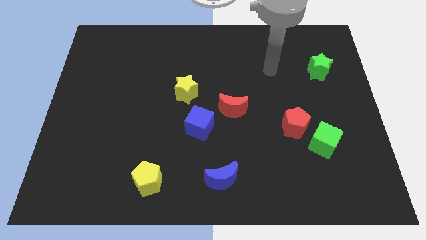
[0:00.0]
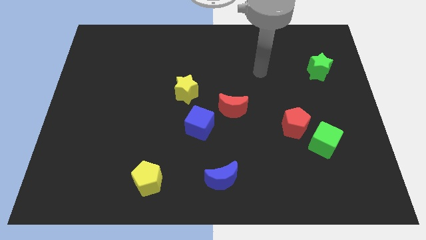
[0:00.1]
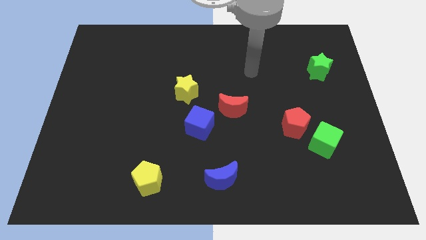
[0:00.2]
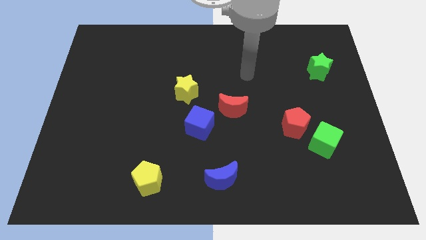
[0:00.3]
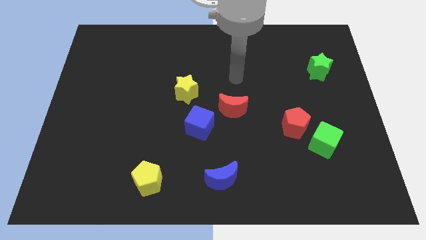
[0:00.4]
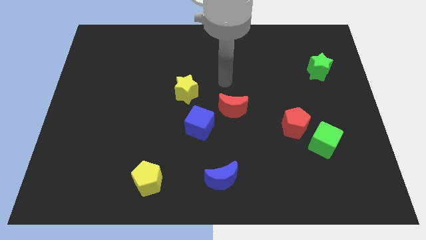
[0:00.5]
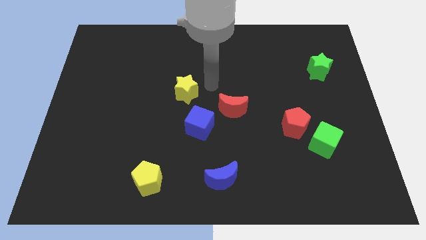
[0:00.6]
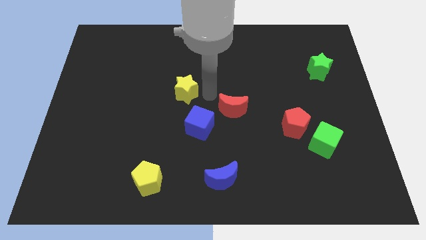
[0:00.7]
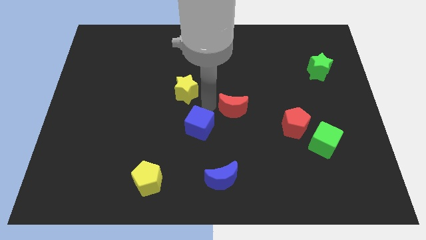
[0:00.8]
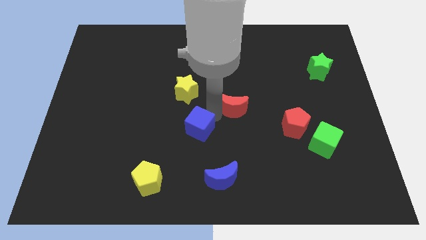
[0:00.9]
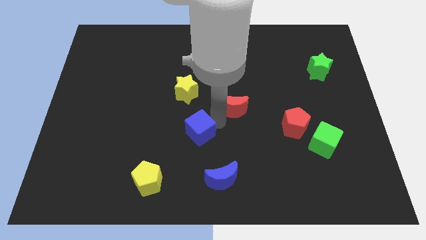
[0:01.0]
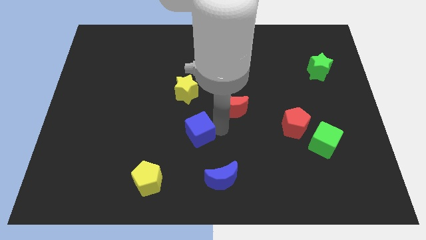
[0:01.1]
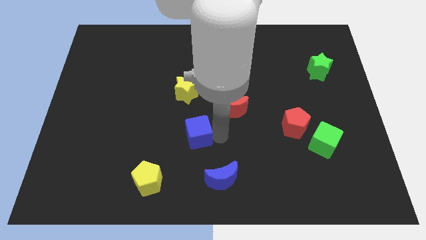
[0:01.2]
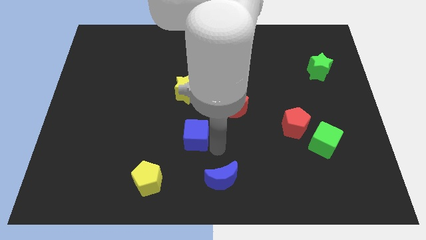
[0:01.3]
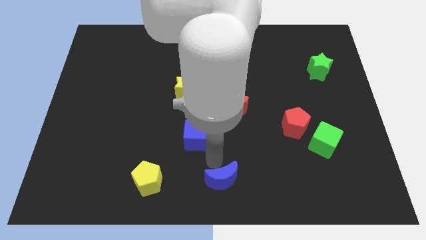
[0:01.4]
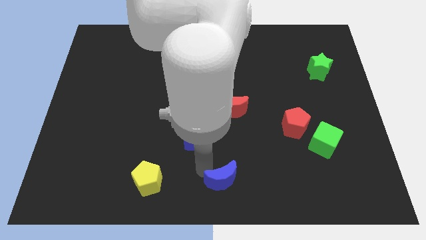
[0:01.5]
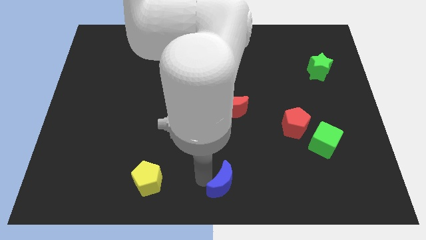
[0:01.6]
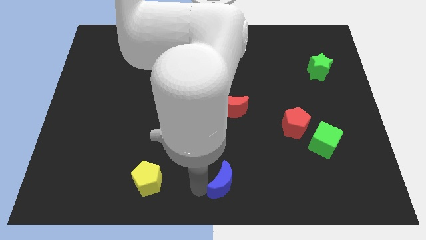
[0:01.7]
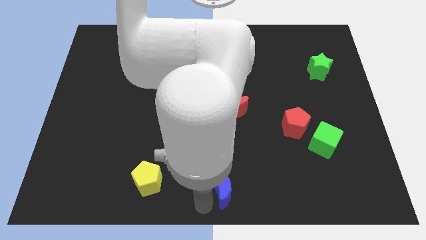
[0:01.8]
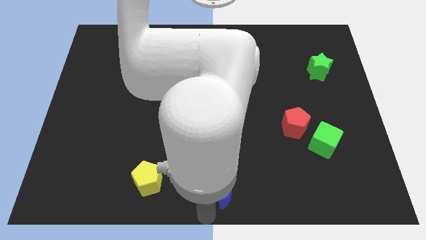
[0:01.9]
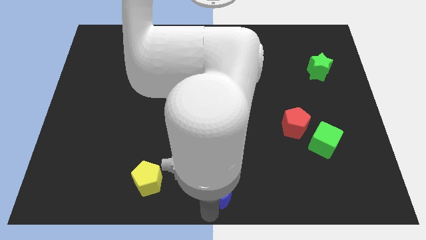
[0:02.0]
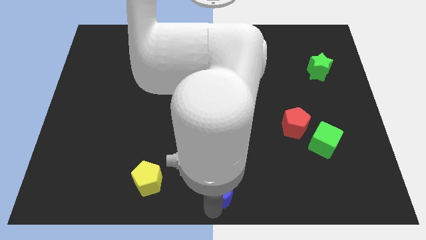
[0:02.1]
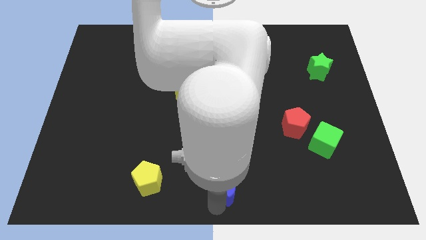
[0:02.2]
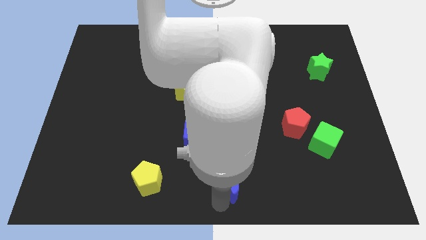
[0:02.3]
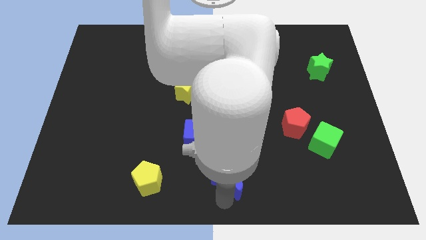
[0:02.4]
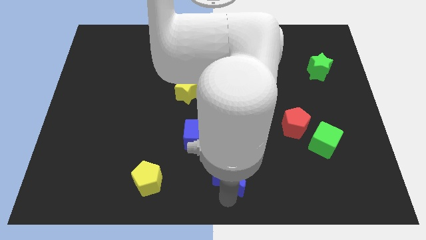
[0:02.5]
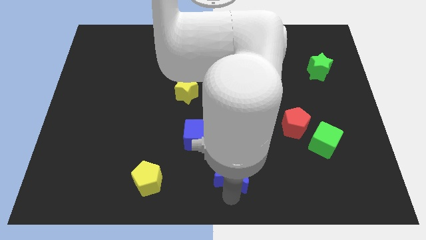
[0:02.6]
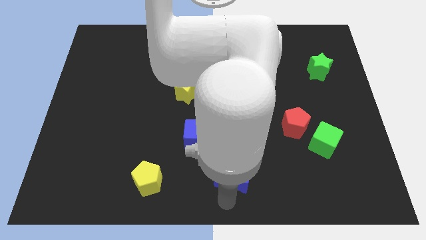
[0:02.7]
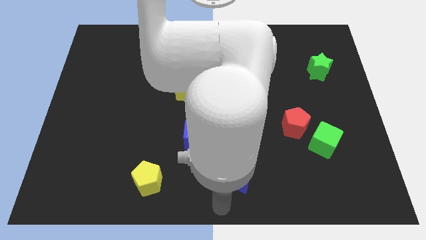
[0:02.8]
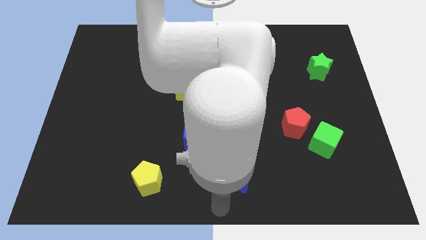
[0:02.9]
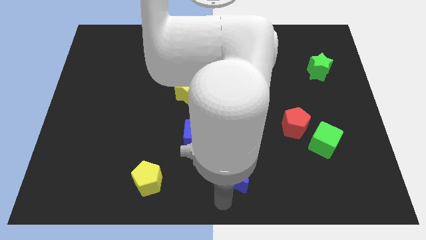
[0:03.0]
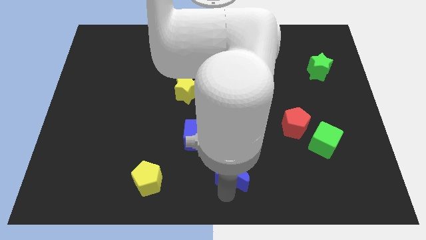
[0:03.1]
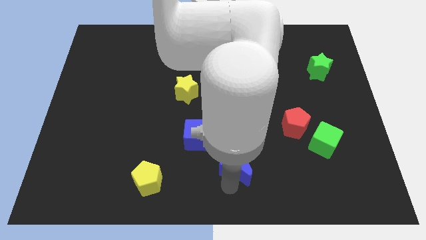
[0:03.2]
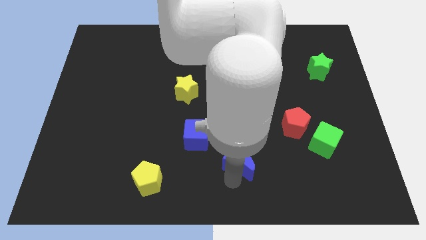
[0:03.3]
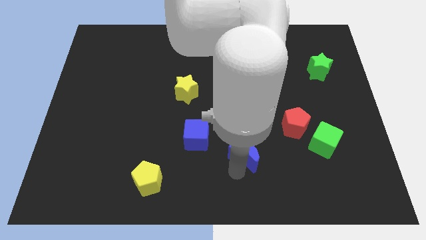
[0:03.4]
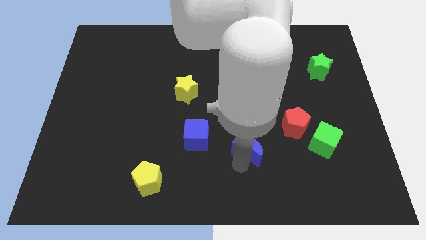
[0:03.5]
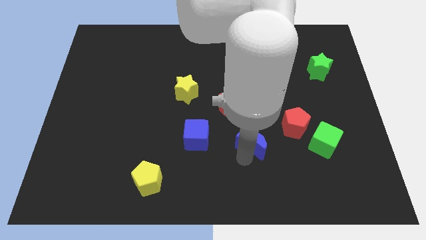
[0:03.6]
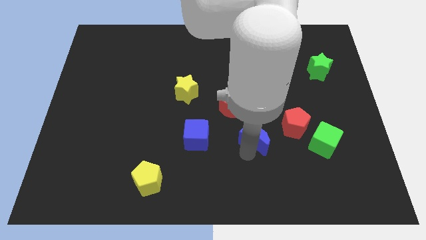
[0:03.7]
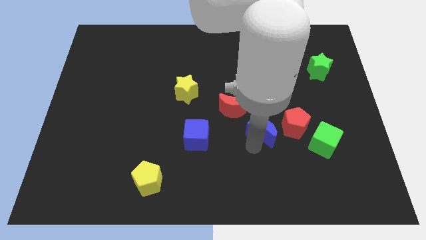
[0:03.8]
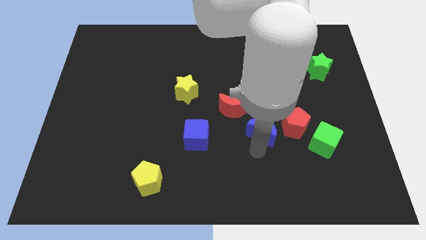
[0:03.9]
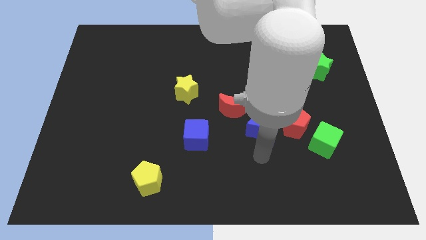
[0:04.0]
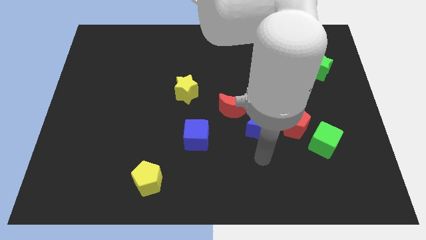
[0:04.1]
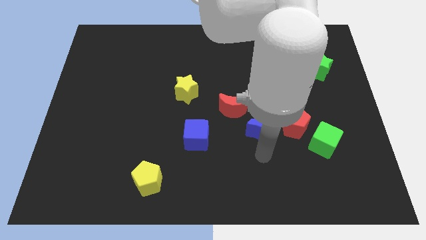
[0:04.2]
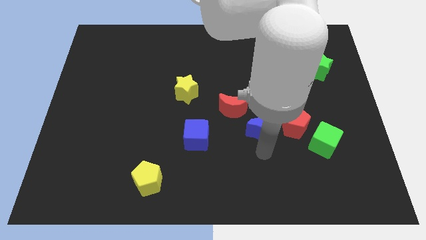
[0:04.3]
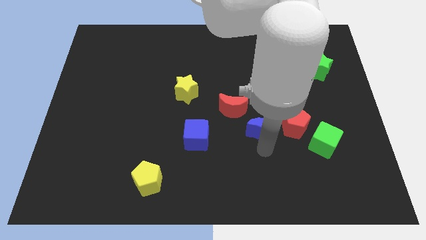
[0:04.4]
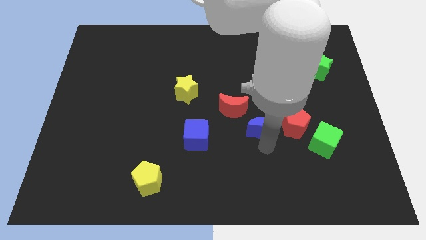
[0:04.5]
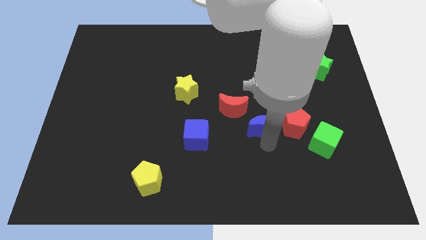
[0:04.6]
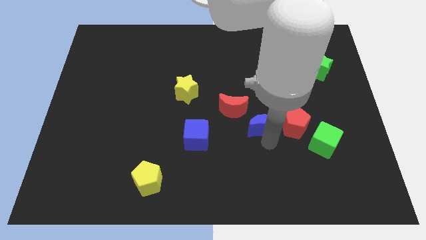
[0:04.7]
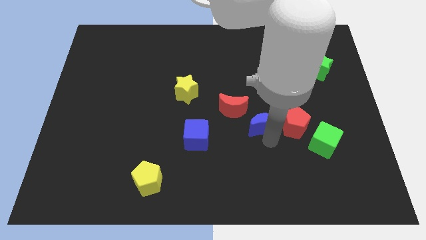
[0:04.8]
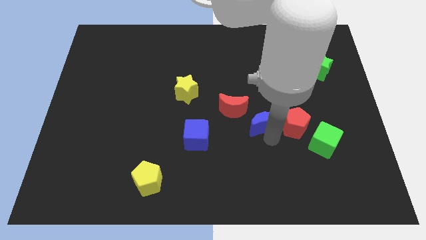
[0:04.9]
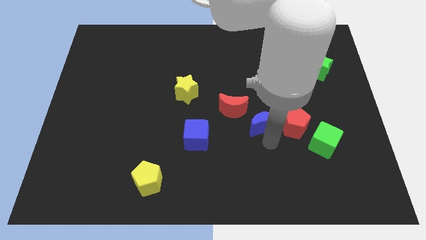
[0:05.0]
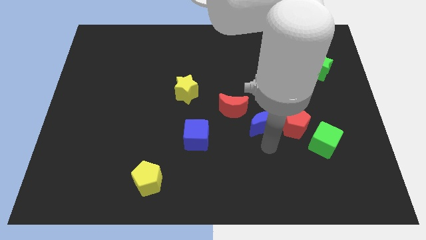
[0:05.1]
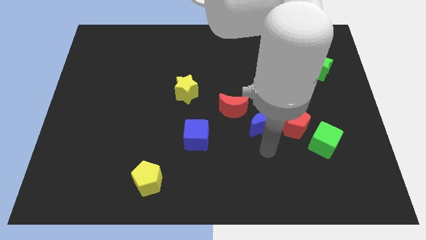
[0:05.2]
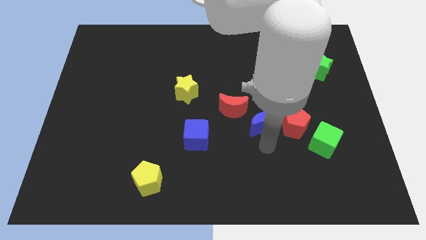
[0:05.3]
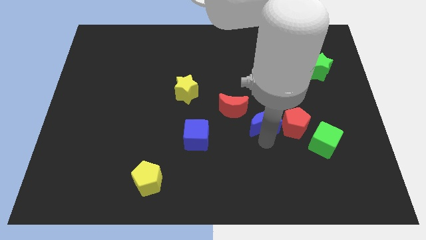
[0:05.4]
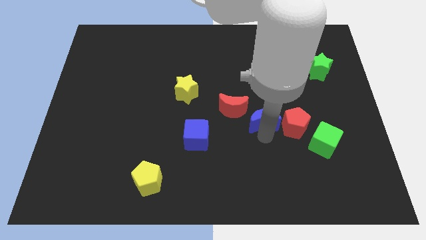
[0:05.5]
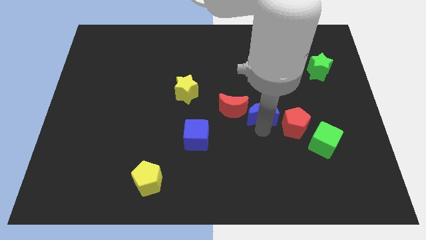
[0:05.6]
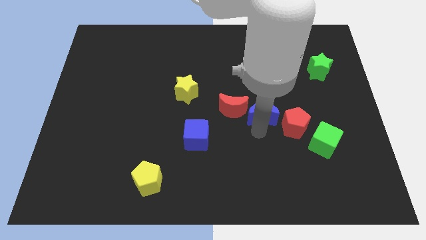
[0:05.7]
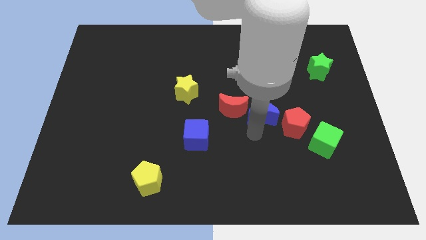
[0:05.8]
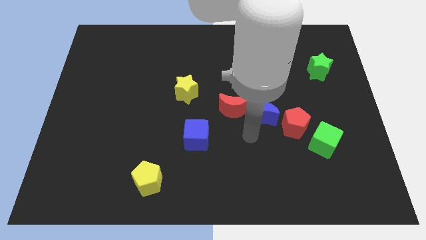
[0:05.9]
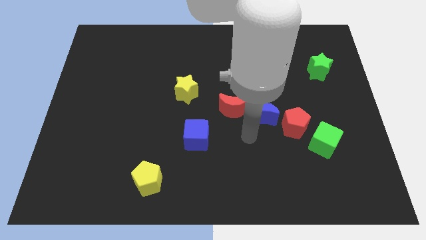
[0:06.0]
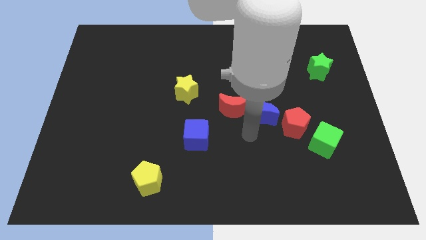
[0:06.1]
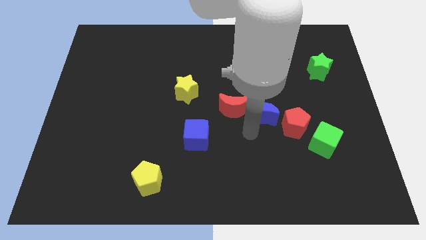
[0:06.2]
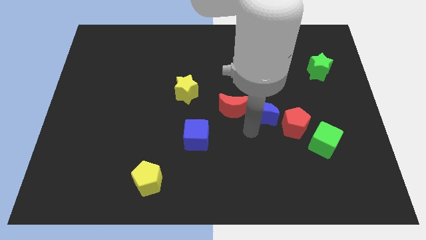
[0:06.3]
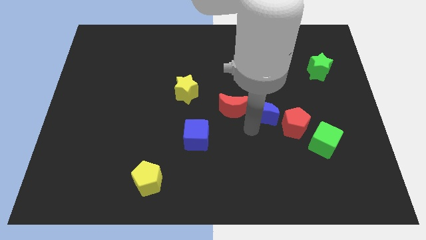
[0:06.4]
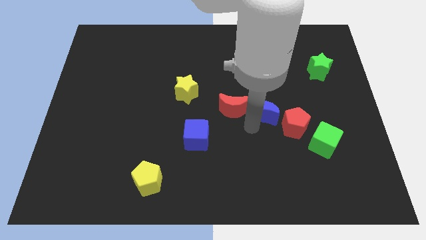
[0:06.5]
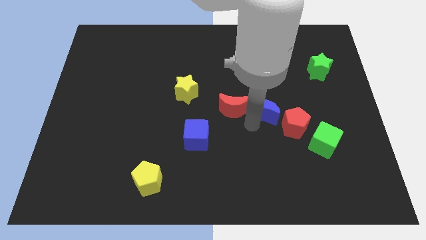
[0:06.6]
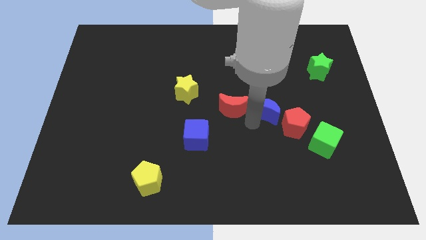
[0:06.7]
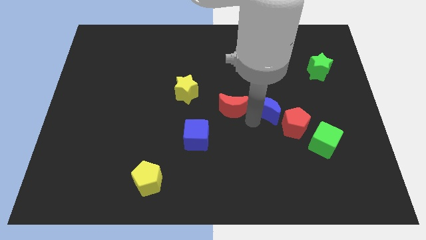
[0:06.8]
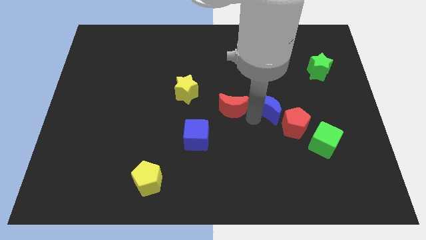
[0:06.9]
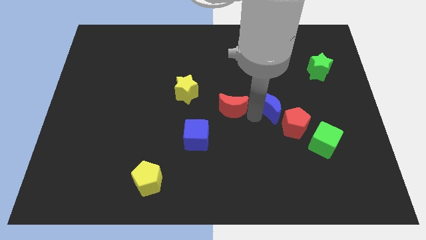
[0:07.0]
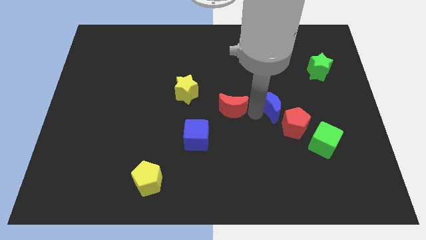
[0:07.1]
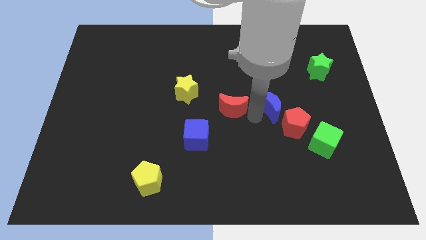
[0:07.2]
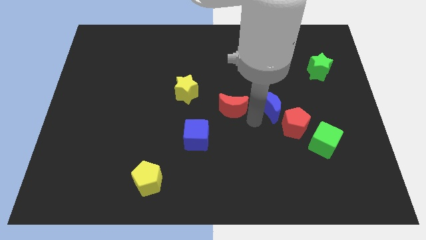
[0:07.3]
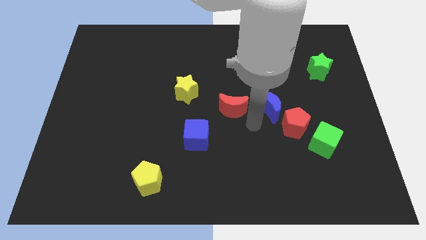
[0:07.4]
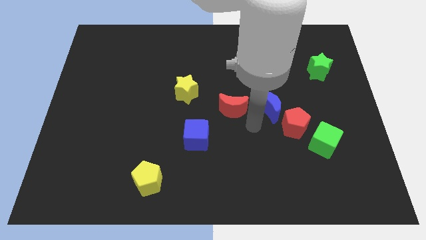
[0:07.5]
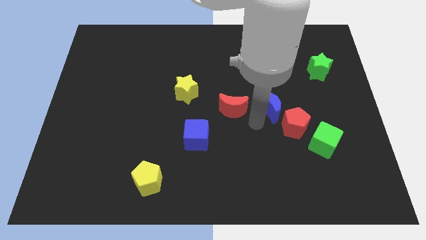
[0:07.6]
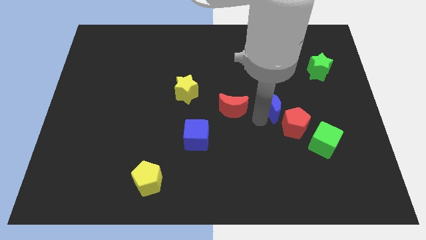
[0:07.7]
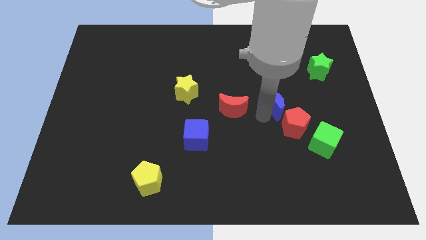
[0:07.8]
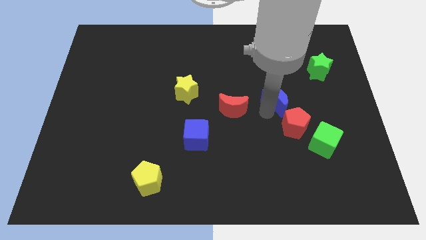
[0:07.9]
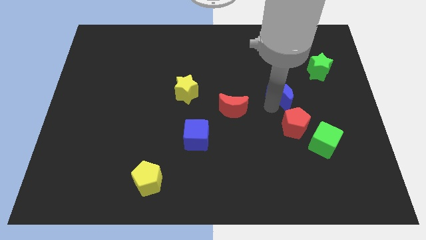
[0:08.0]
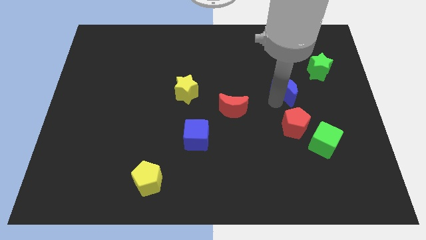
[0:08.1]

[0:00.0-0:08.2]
put the blue moon diagonally down and to the left of the green star
